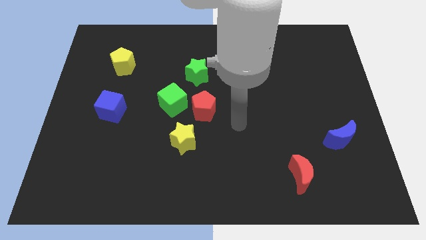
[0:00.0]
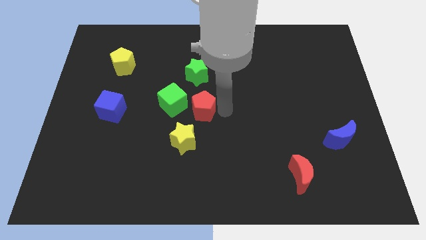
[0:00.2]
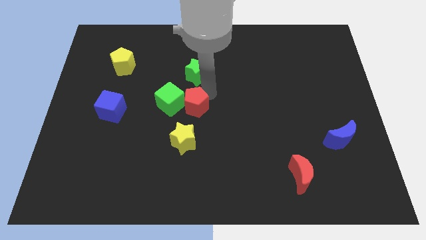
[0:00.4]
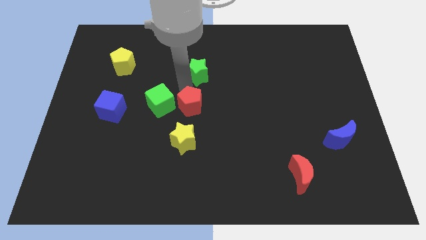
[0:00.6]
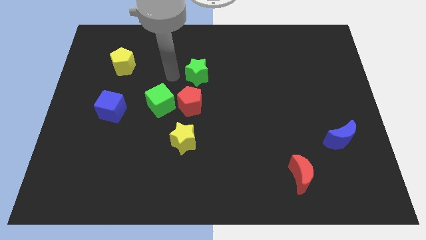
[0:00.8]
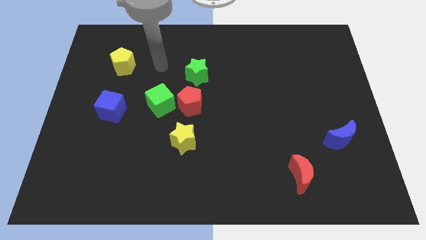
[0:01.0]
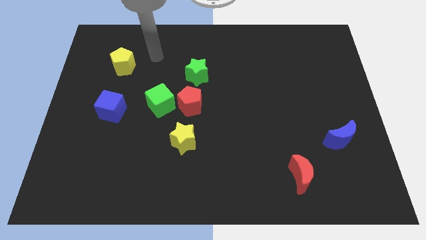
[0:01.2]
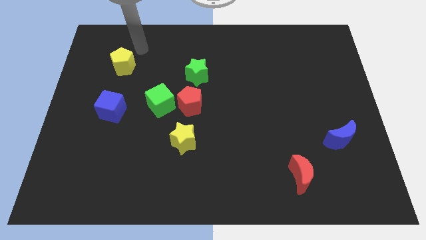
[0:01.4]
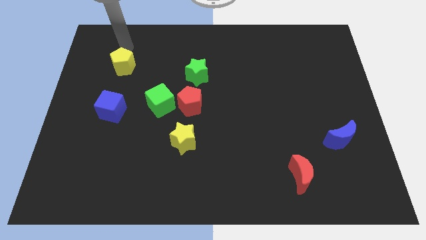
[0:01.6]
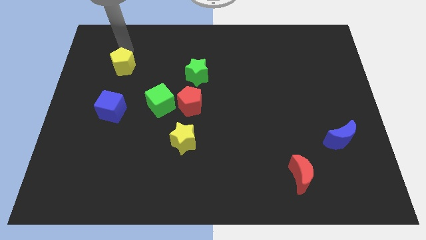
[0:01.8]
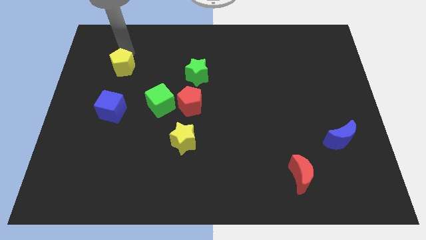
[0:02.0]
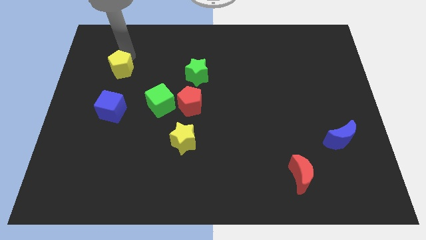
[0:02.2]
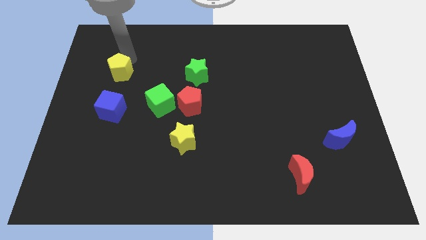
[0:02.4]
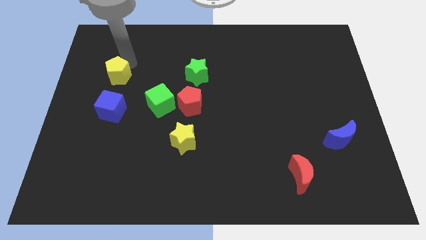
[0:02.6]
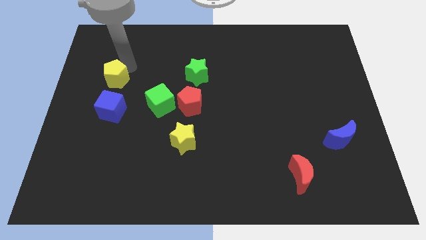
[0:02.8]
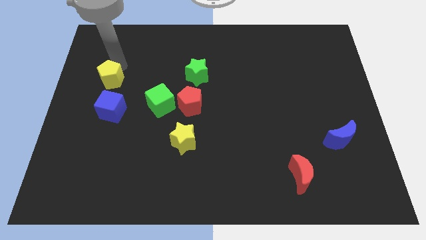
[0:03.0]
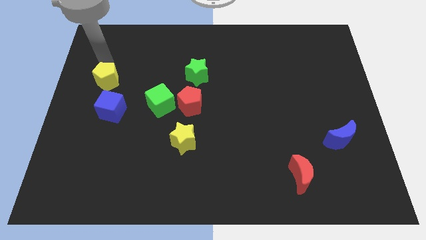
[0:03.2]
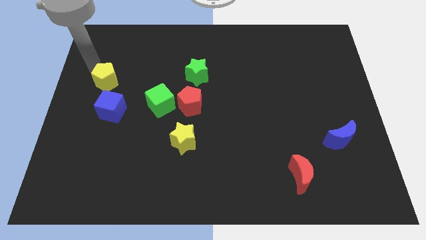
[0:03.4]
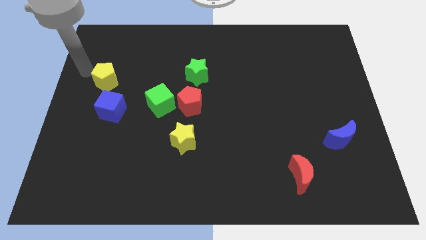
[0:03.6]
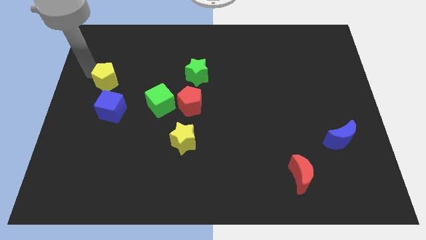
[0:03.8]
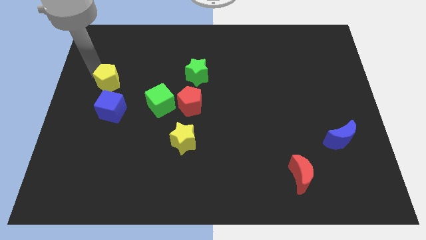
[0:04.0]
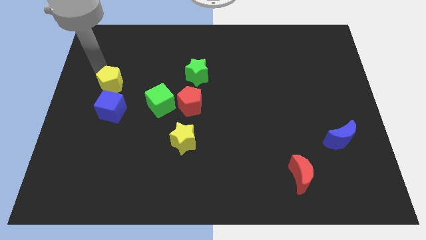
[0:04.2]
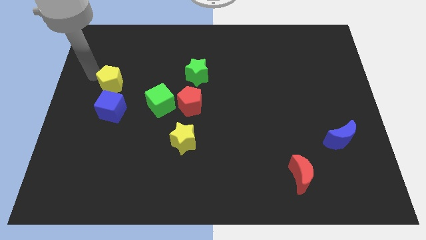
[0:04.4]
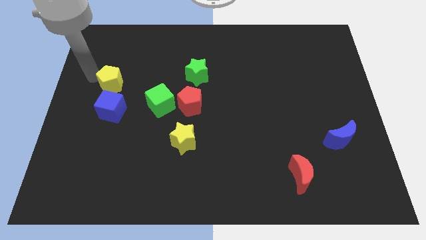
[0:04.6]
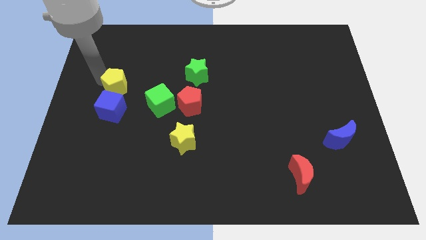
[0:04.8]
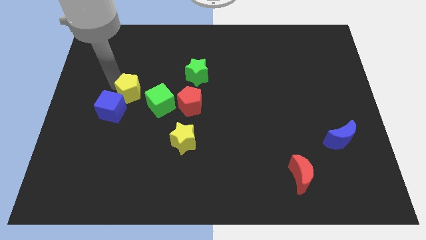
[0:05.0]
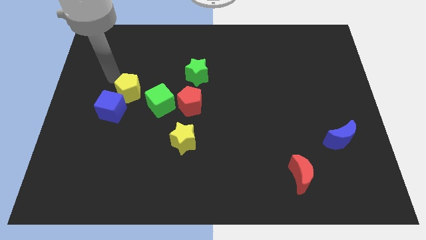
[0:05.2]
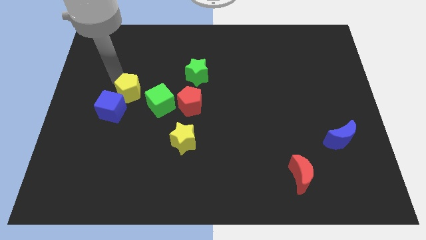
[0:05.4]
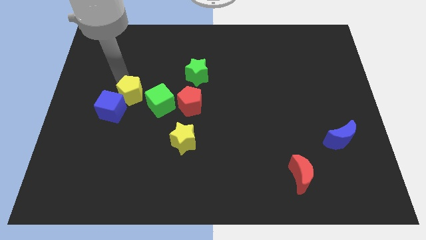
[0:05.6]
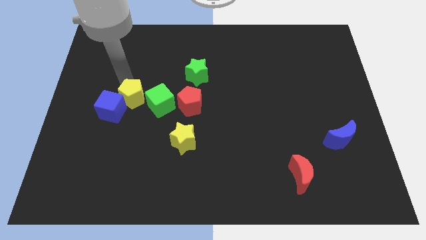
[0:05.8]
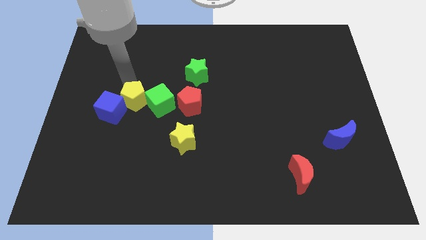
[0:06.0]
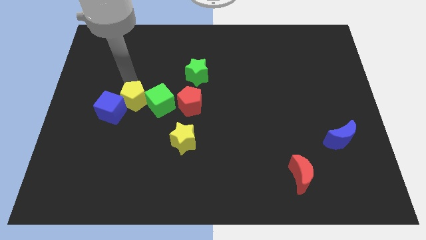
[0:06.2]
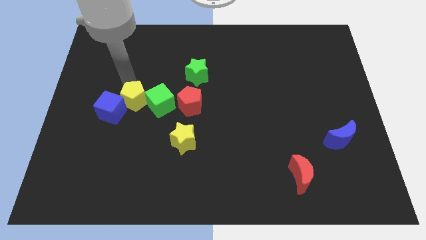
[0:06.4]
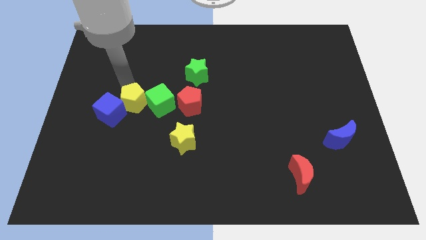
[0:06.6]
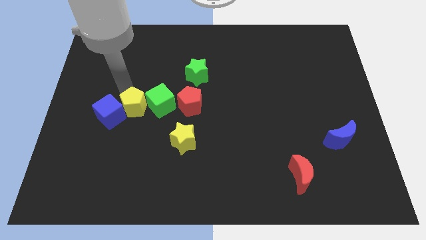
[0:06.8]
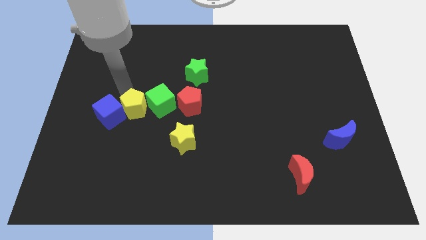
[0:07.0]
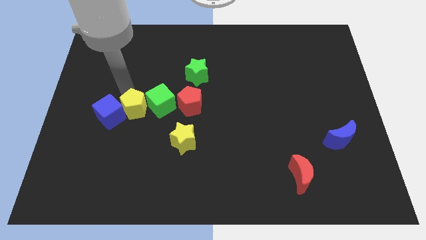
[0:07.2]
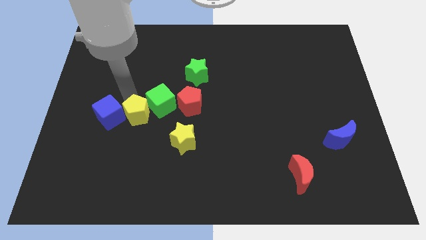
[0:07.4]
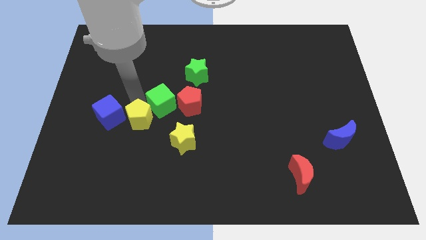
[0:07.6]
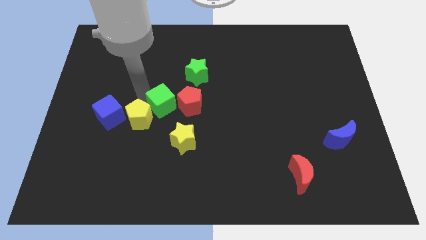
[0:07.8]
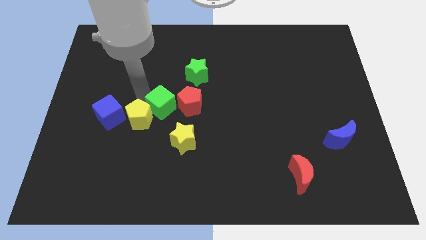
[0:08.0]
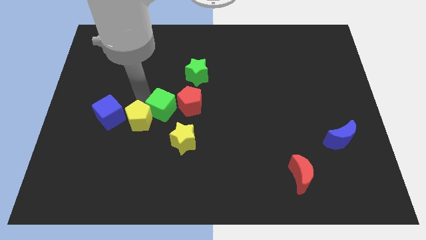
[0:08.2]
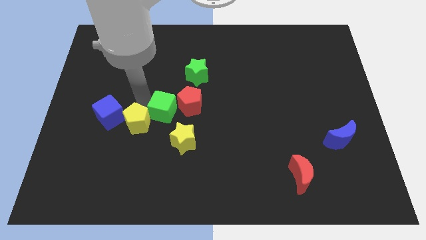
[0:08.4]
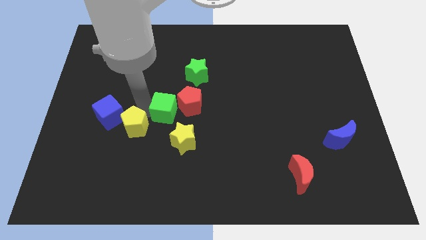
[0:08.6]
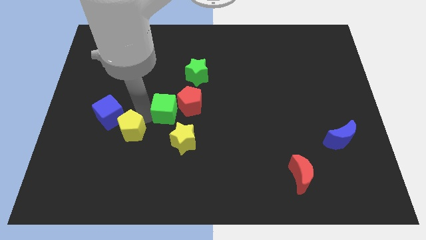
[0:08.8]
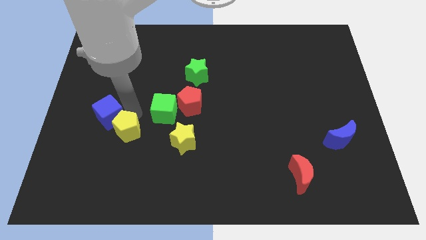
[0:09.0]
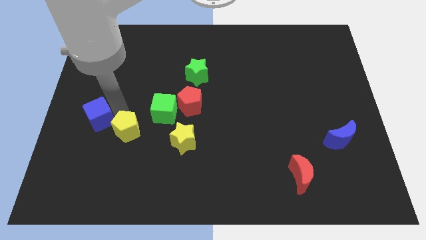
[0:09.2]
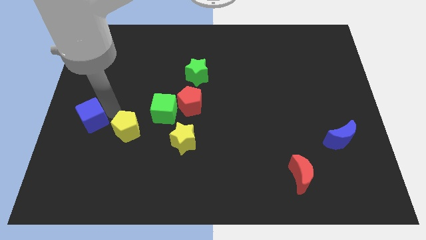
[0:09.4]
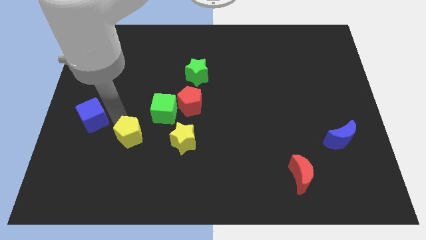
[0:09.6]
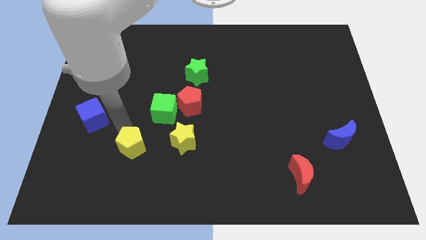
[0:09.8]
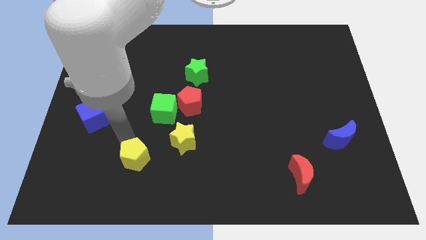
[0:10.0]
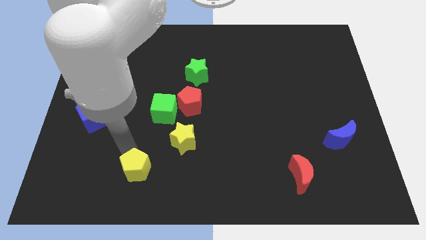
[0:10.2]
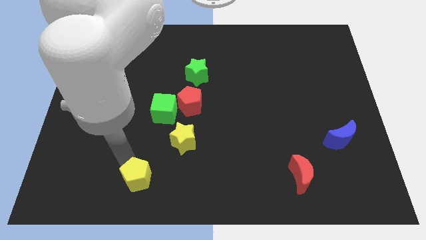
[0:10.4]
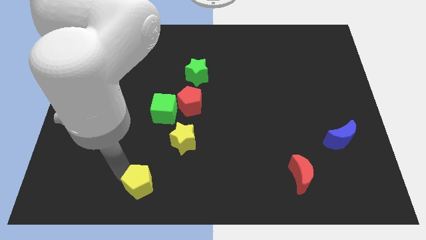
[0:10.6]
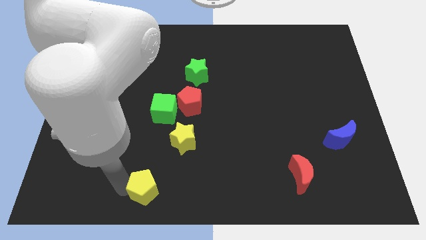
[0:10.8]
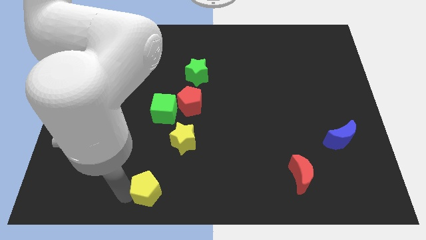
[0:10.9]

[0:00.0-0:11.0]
push the yellow pentagon to the bottom

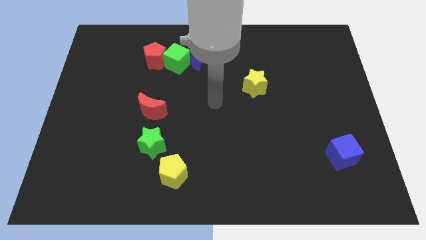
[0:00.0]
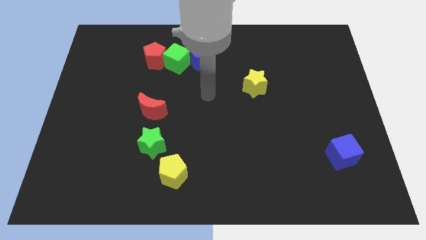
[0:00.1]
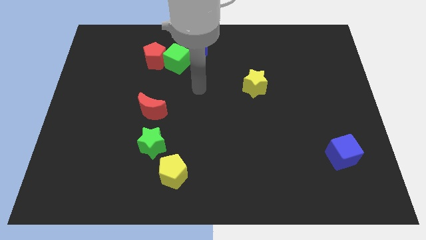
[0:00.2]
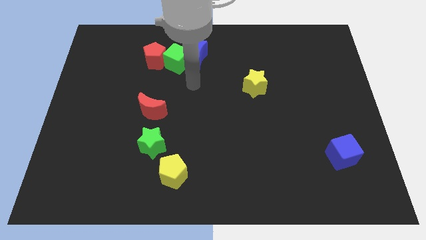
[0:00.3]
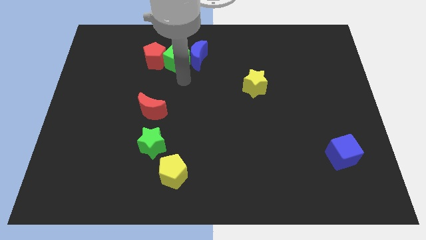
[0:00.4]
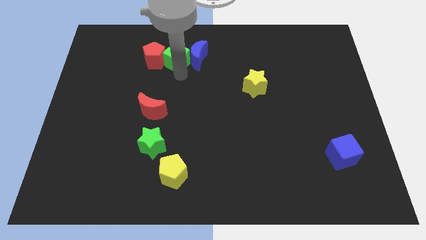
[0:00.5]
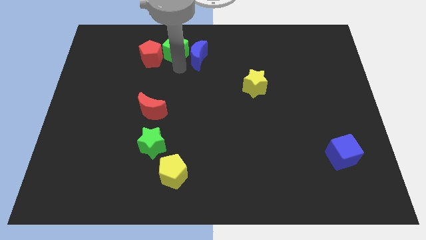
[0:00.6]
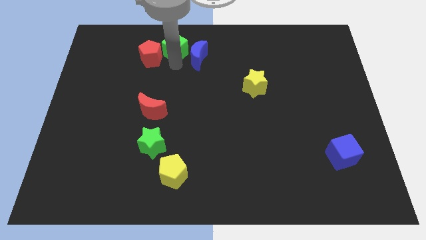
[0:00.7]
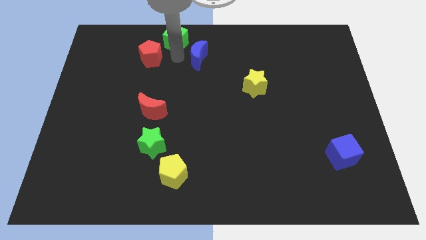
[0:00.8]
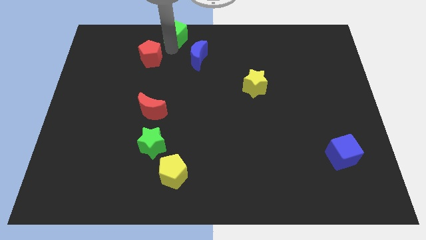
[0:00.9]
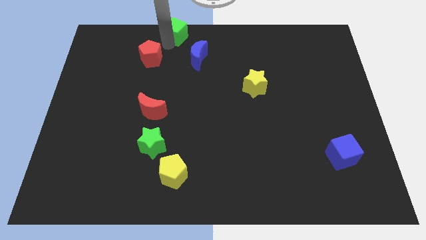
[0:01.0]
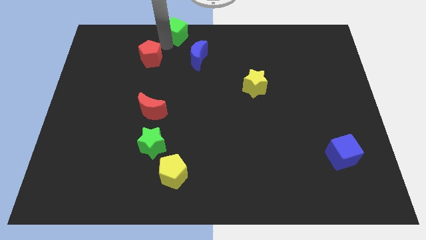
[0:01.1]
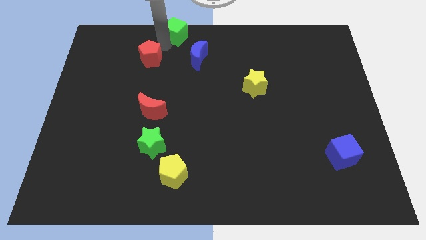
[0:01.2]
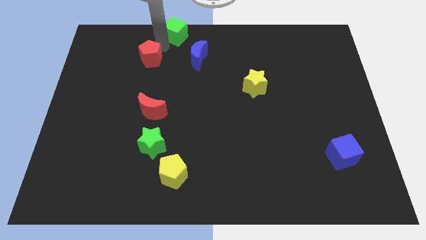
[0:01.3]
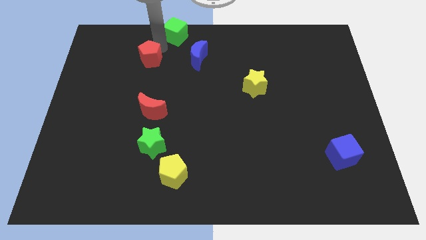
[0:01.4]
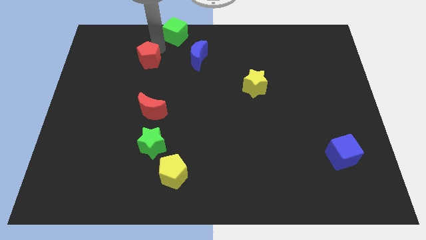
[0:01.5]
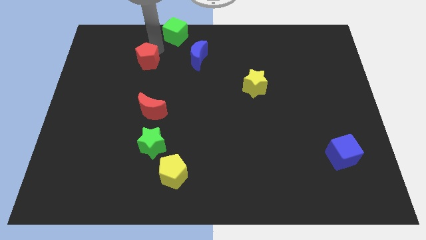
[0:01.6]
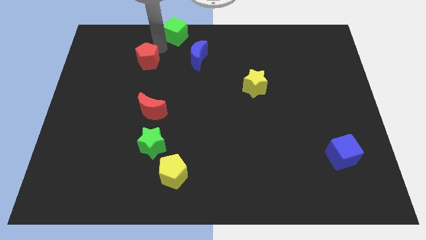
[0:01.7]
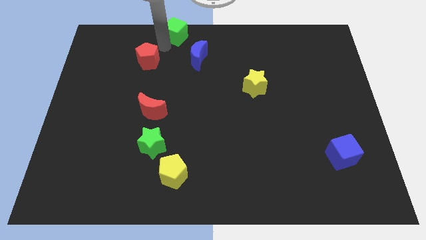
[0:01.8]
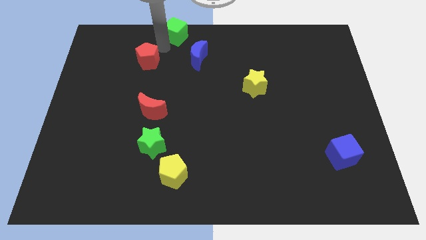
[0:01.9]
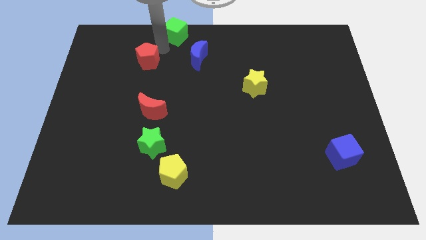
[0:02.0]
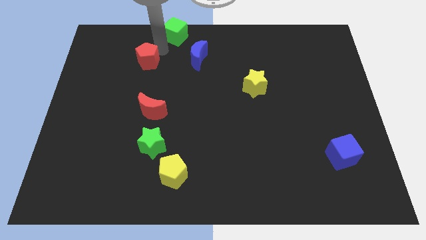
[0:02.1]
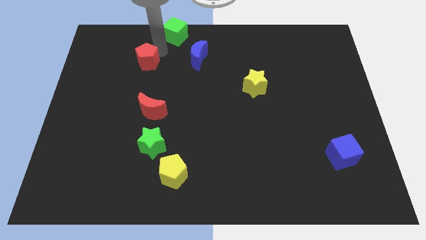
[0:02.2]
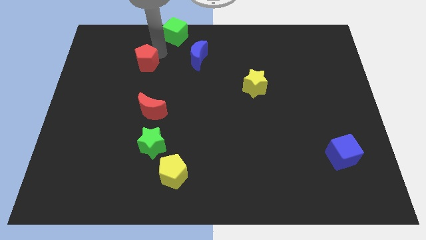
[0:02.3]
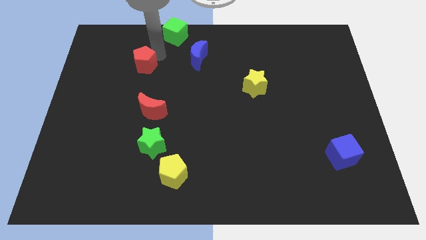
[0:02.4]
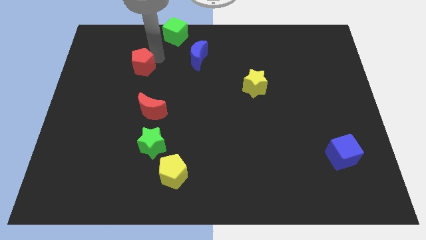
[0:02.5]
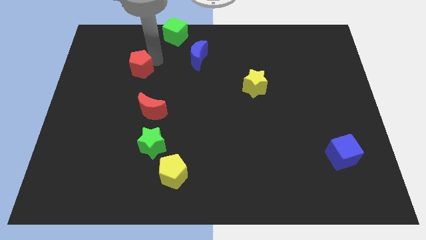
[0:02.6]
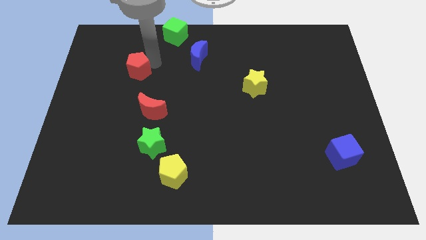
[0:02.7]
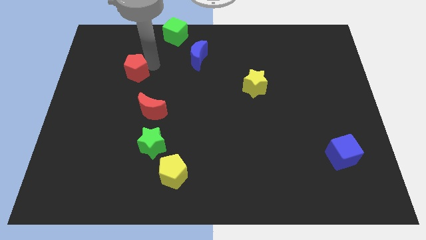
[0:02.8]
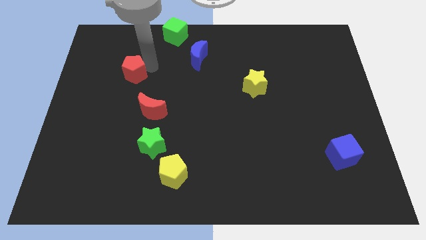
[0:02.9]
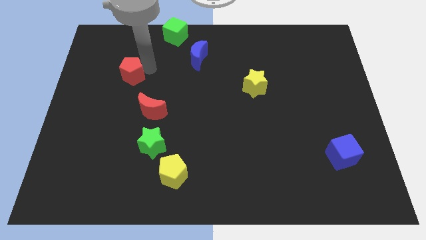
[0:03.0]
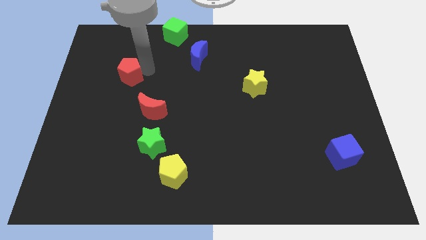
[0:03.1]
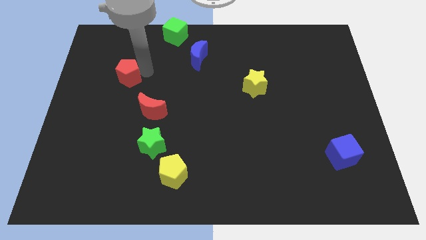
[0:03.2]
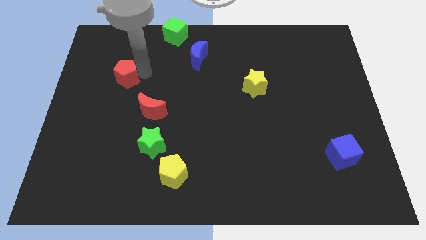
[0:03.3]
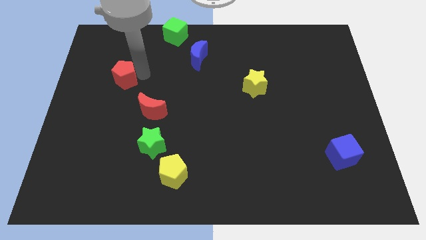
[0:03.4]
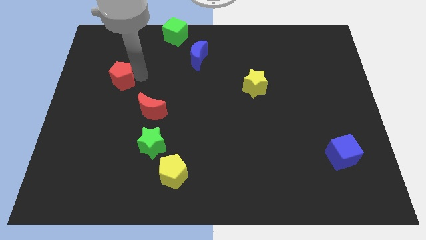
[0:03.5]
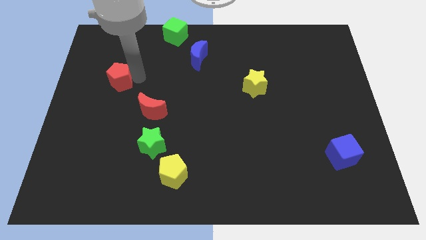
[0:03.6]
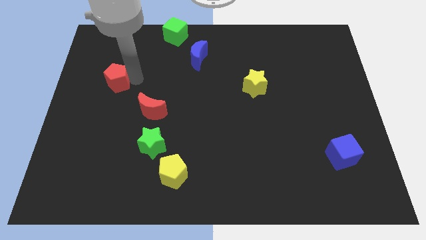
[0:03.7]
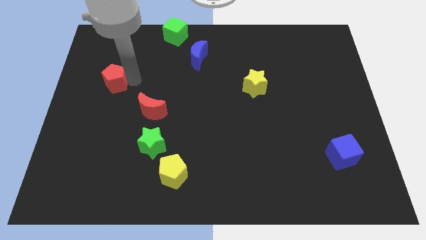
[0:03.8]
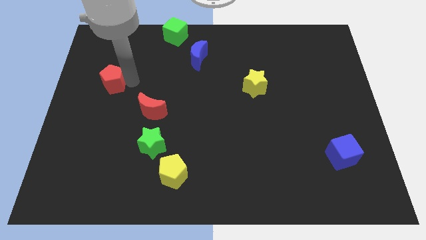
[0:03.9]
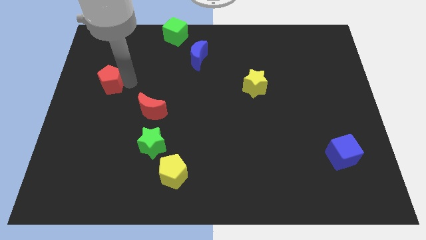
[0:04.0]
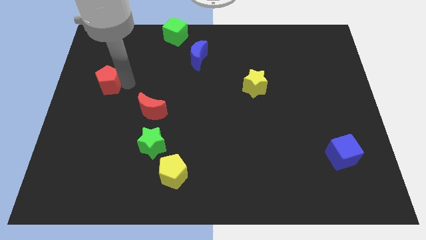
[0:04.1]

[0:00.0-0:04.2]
push the red pentagon to the center left
